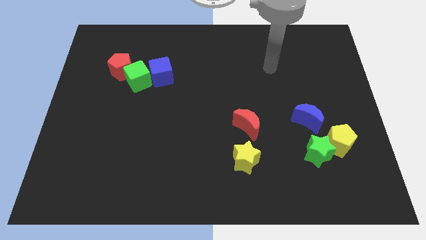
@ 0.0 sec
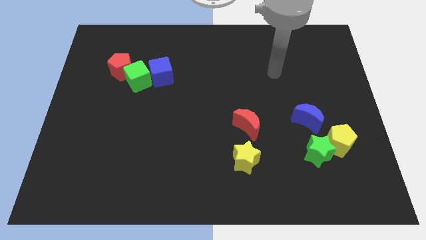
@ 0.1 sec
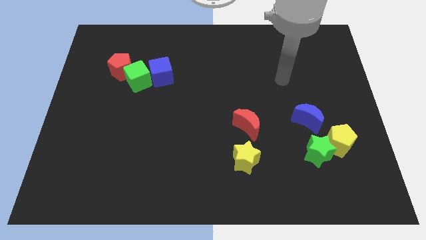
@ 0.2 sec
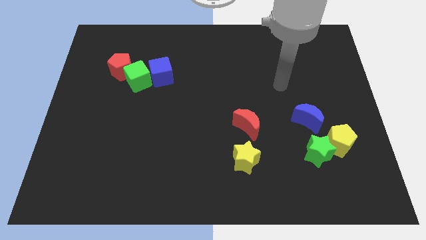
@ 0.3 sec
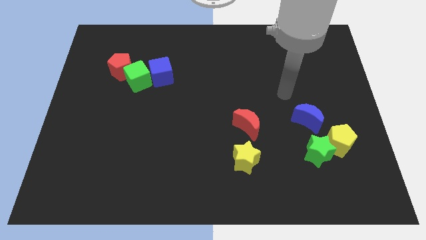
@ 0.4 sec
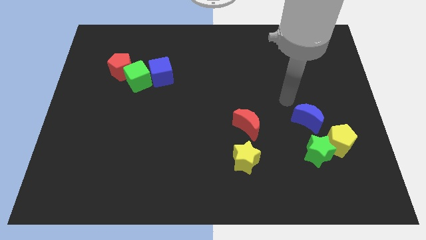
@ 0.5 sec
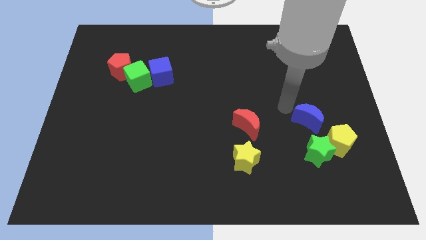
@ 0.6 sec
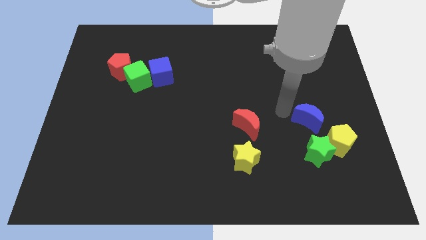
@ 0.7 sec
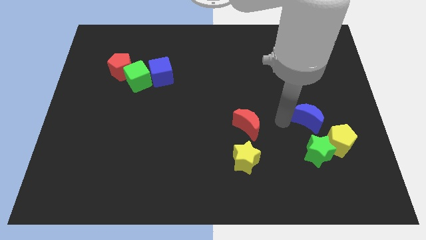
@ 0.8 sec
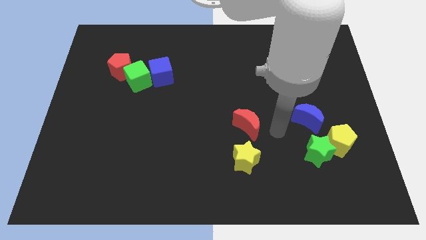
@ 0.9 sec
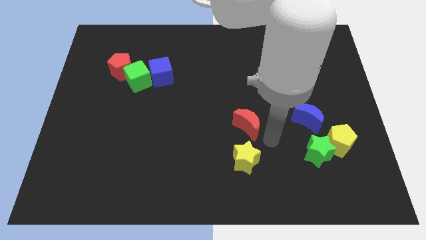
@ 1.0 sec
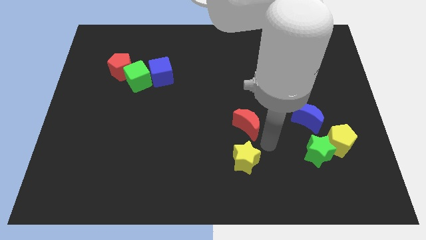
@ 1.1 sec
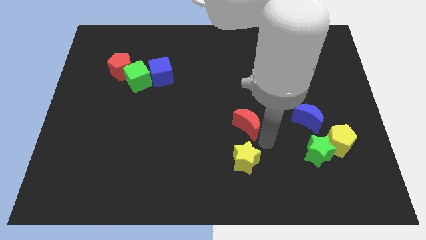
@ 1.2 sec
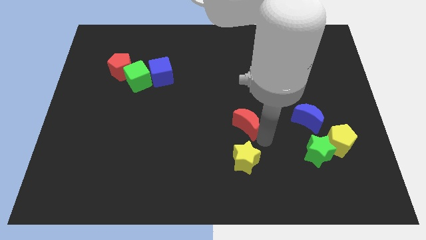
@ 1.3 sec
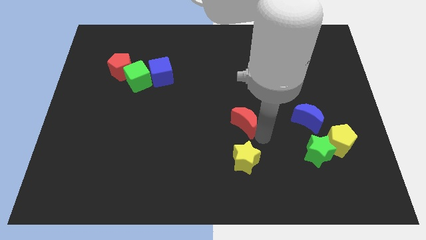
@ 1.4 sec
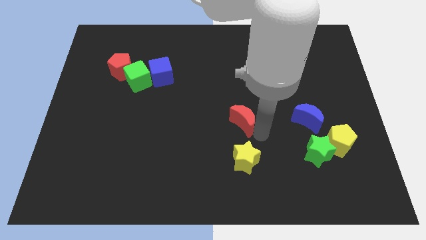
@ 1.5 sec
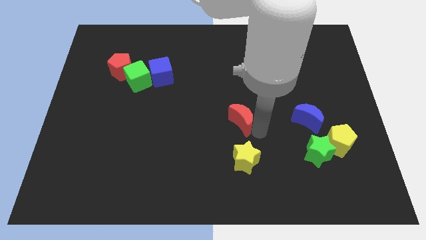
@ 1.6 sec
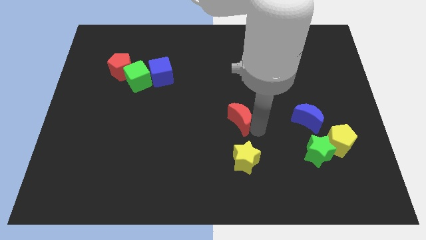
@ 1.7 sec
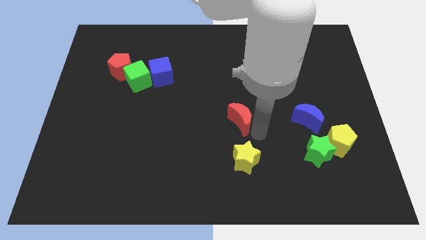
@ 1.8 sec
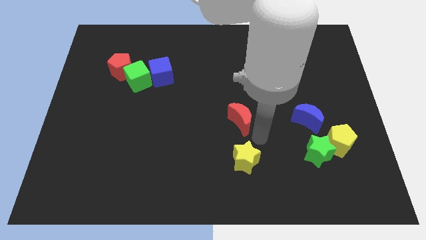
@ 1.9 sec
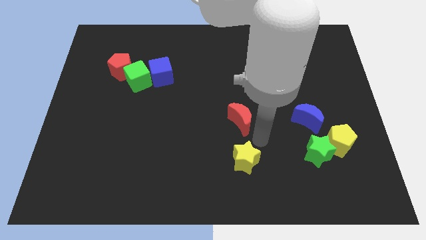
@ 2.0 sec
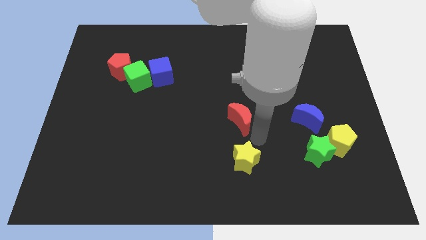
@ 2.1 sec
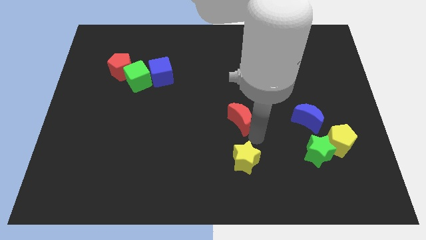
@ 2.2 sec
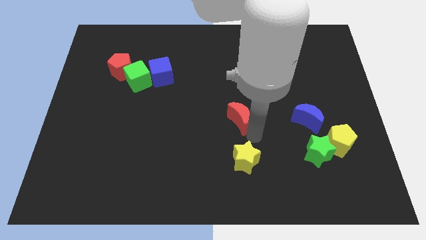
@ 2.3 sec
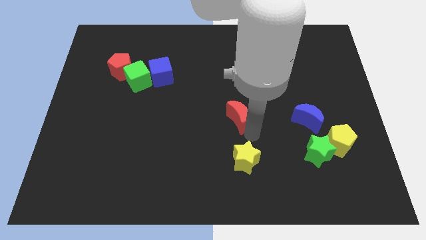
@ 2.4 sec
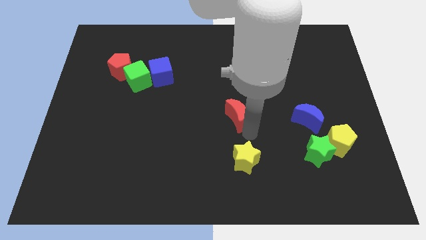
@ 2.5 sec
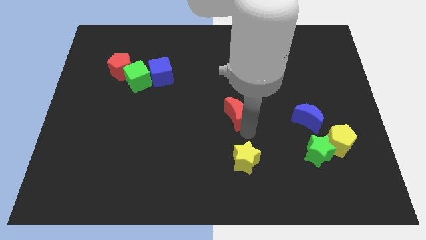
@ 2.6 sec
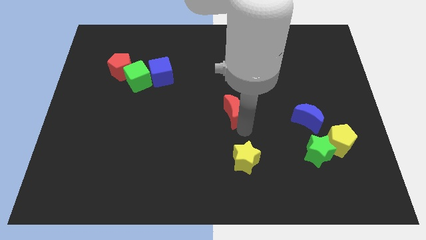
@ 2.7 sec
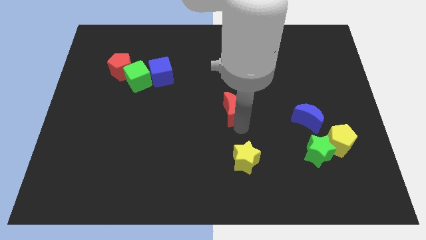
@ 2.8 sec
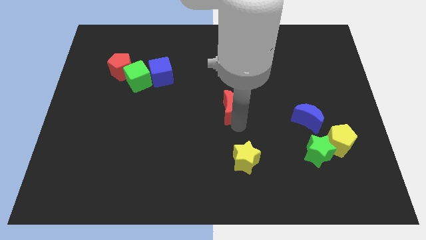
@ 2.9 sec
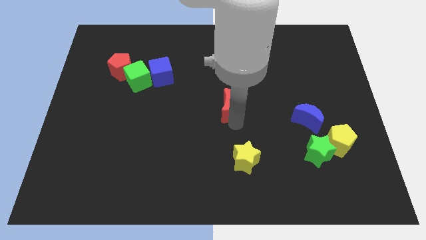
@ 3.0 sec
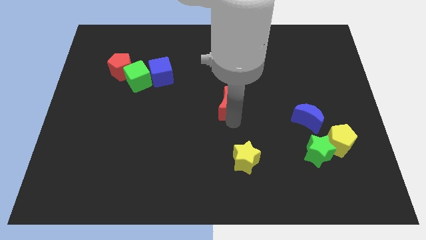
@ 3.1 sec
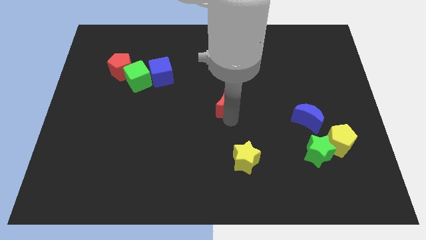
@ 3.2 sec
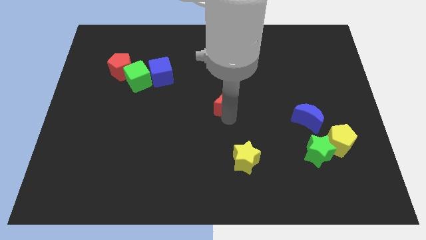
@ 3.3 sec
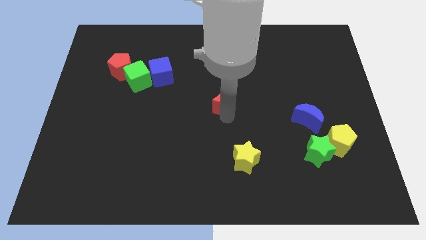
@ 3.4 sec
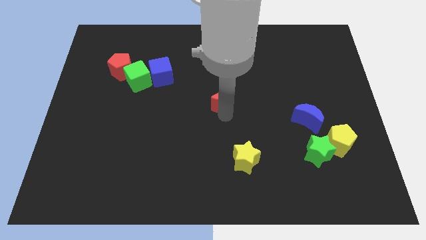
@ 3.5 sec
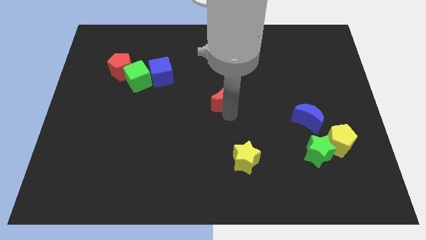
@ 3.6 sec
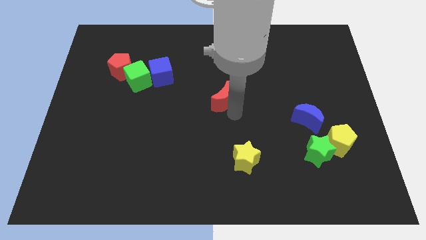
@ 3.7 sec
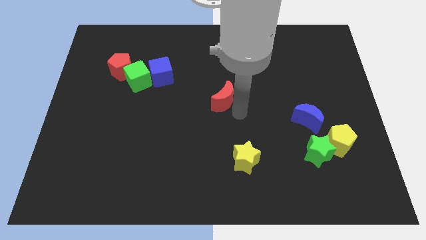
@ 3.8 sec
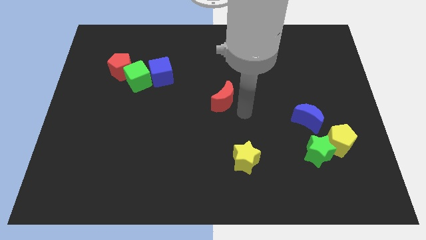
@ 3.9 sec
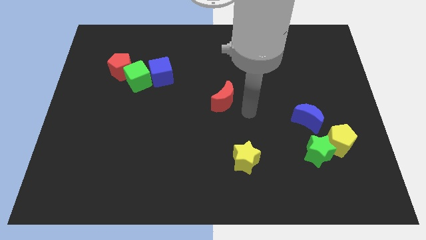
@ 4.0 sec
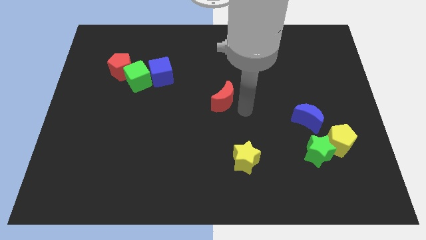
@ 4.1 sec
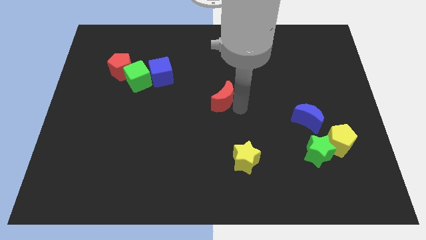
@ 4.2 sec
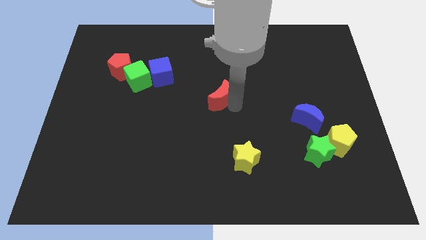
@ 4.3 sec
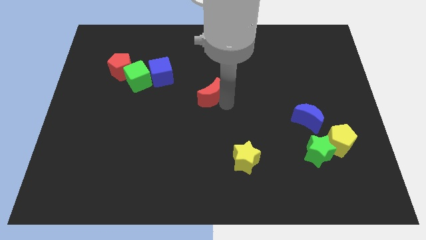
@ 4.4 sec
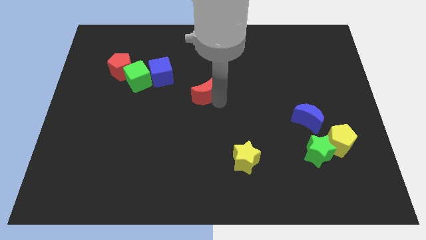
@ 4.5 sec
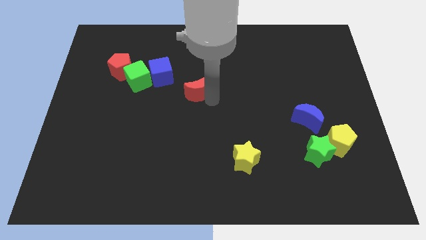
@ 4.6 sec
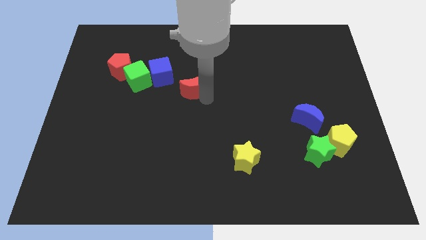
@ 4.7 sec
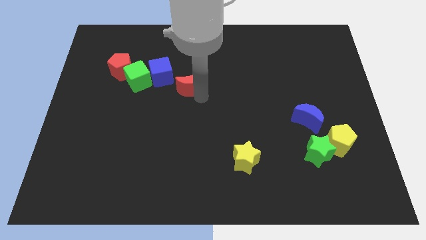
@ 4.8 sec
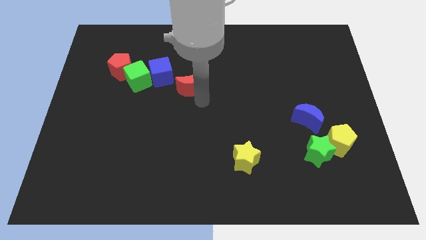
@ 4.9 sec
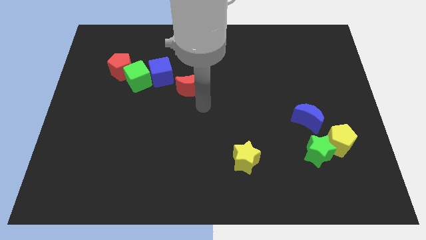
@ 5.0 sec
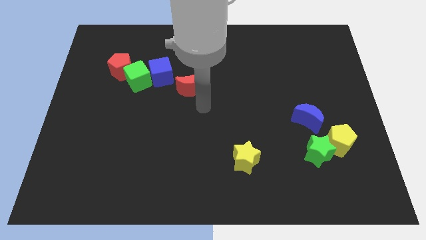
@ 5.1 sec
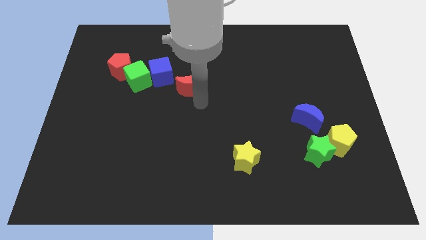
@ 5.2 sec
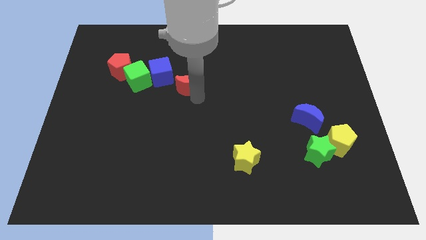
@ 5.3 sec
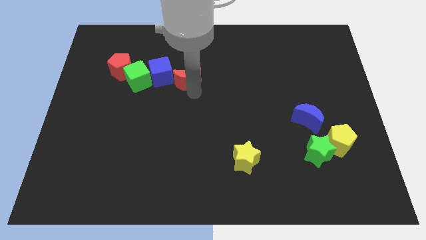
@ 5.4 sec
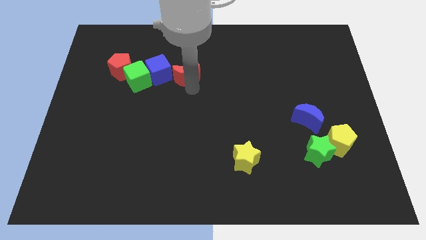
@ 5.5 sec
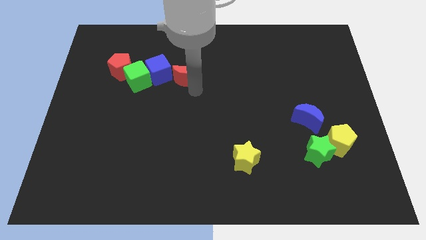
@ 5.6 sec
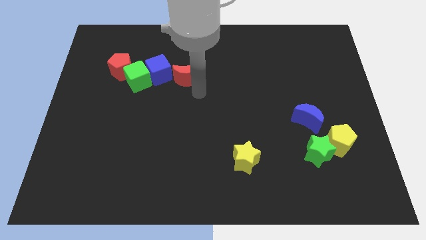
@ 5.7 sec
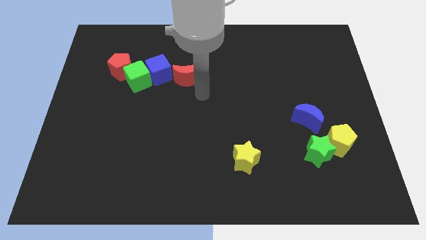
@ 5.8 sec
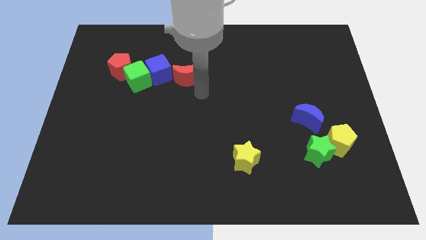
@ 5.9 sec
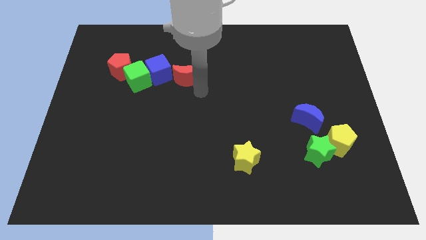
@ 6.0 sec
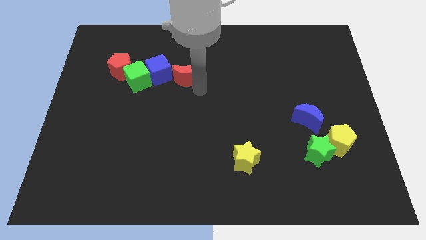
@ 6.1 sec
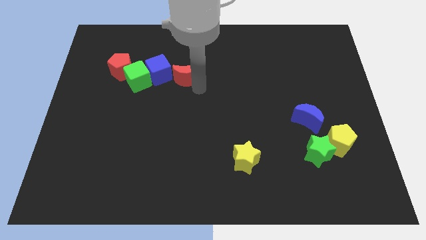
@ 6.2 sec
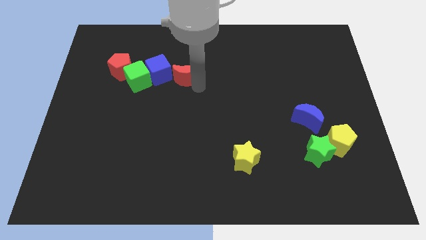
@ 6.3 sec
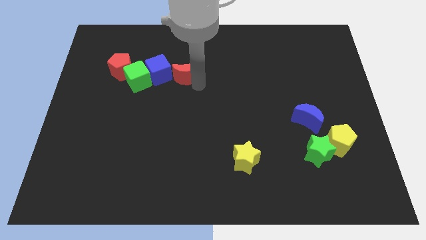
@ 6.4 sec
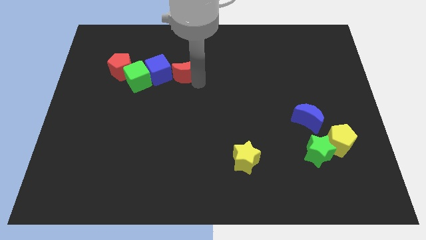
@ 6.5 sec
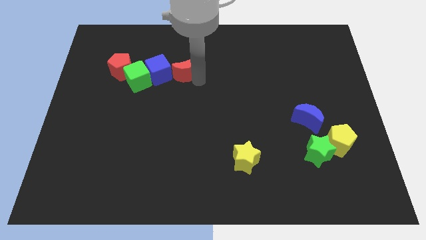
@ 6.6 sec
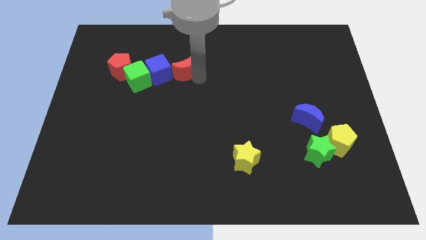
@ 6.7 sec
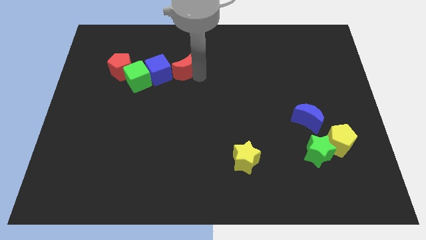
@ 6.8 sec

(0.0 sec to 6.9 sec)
push the red moon to the right side of the red pentagon
